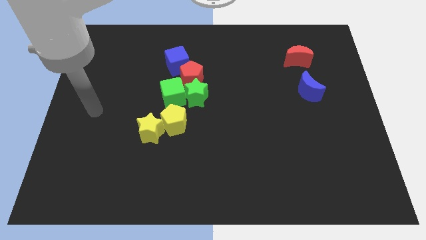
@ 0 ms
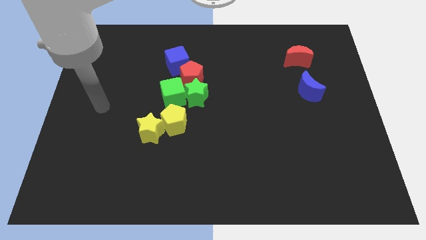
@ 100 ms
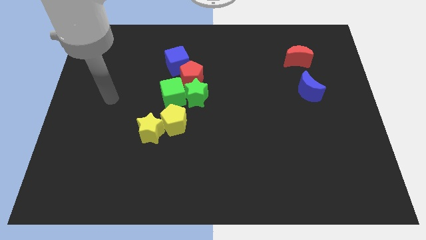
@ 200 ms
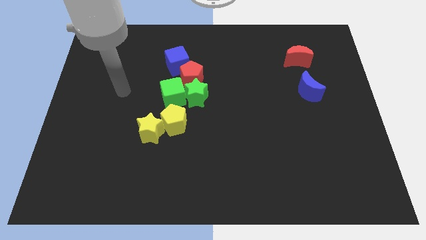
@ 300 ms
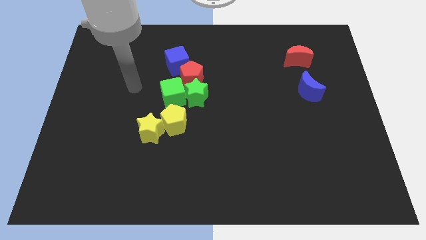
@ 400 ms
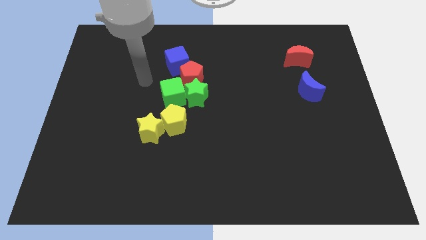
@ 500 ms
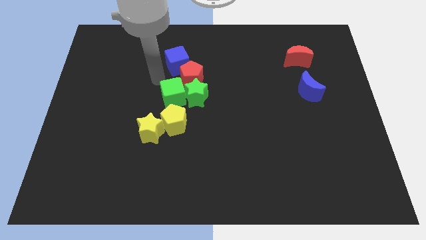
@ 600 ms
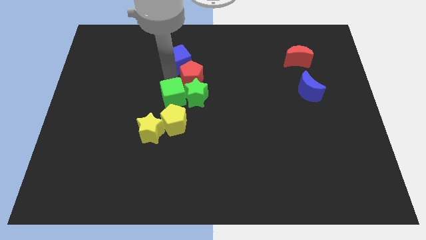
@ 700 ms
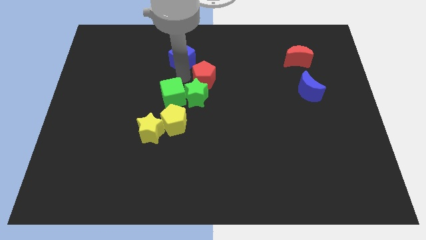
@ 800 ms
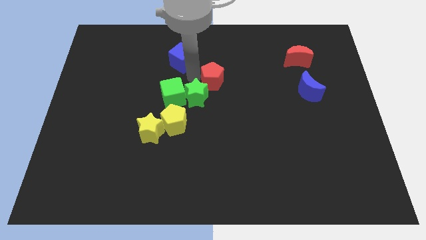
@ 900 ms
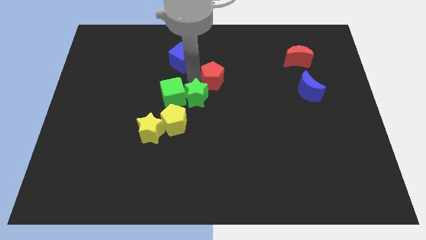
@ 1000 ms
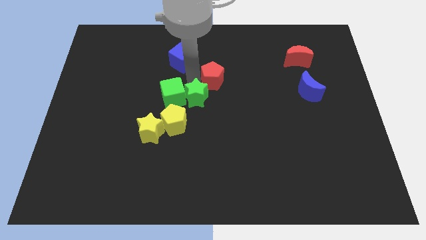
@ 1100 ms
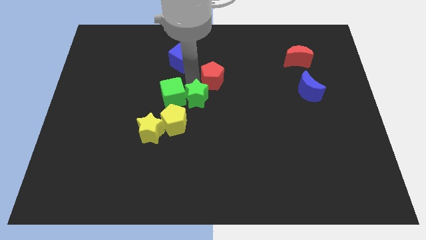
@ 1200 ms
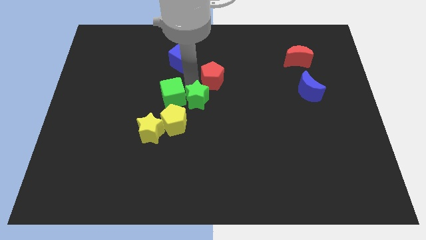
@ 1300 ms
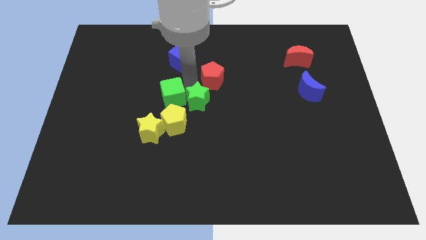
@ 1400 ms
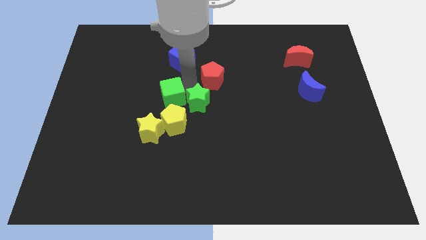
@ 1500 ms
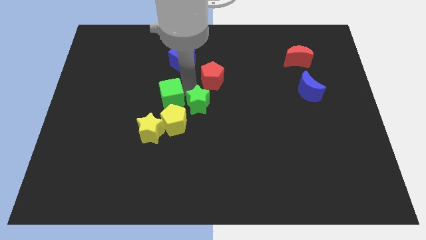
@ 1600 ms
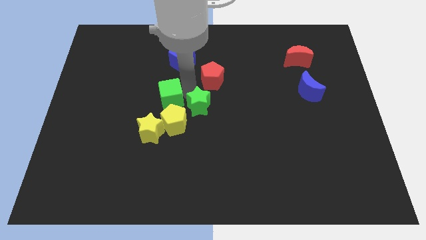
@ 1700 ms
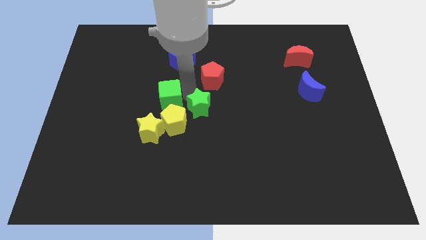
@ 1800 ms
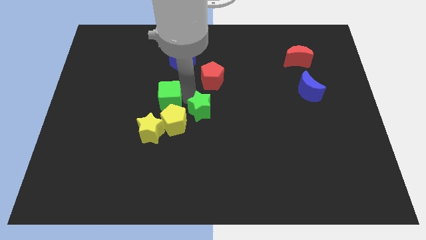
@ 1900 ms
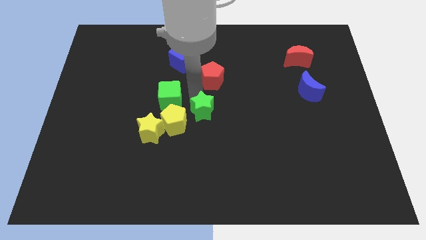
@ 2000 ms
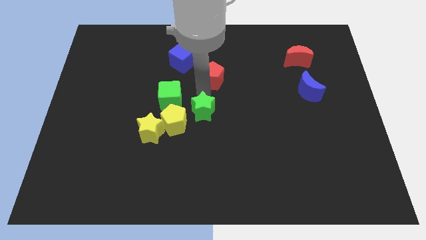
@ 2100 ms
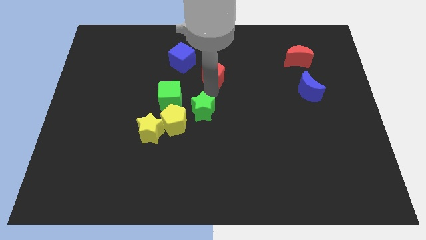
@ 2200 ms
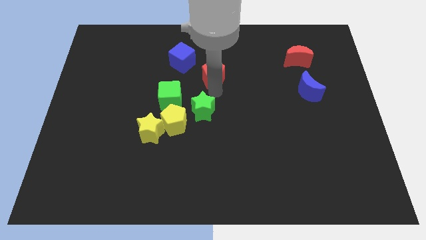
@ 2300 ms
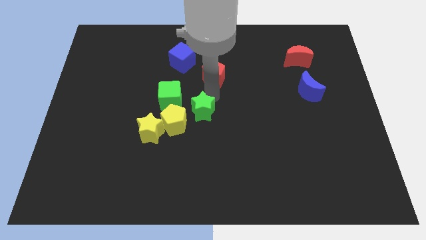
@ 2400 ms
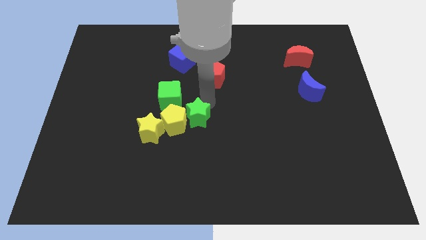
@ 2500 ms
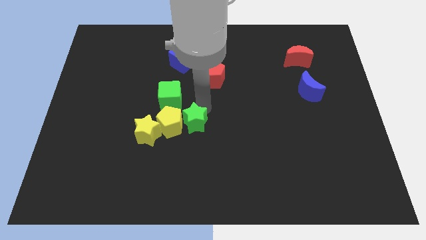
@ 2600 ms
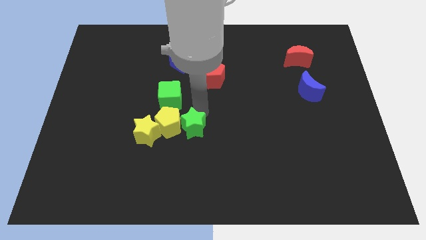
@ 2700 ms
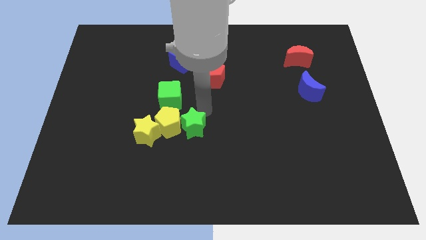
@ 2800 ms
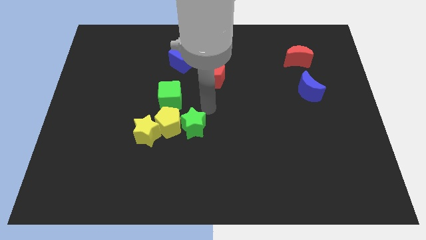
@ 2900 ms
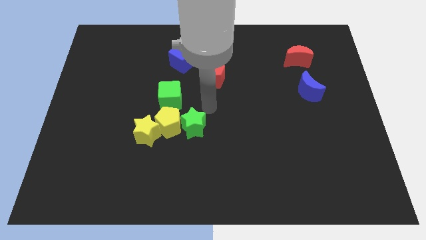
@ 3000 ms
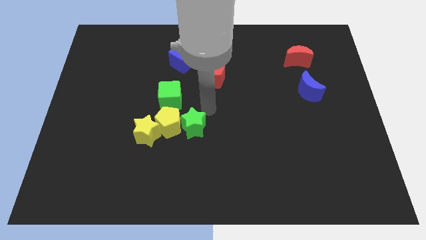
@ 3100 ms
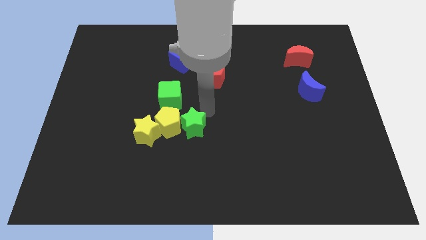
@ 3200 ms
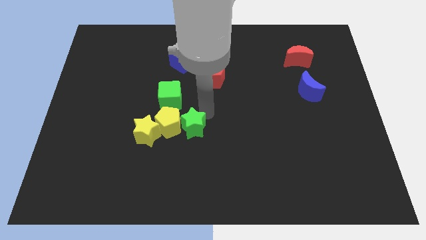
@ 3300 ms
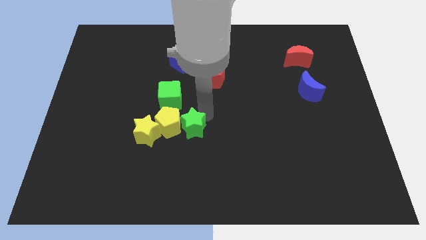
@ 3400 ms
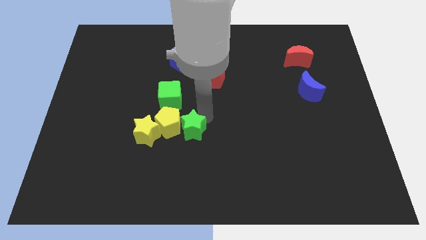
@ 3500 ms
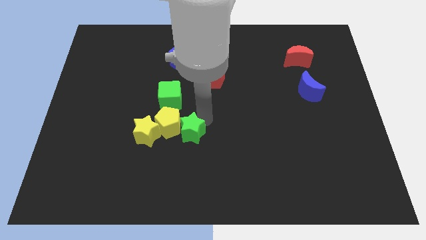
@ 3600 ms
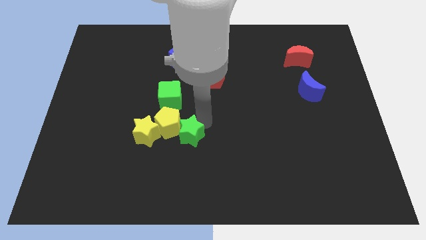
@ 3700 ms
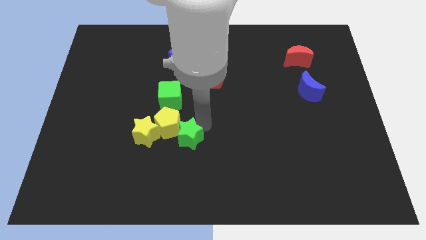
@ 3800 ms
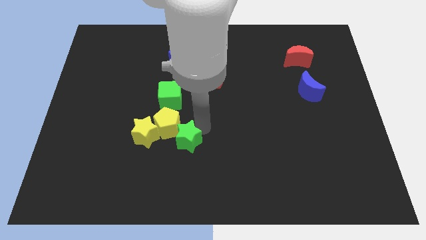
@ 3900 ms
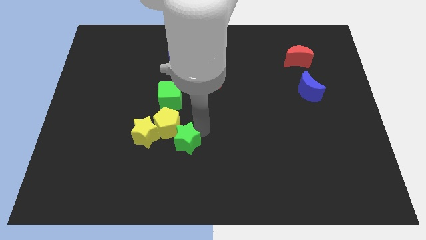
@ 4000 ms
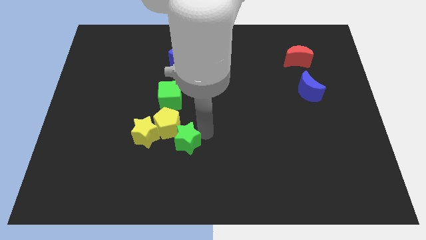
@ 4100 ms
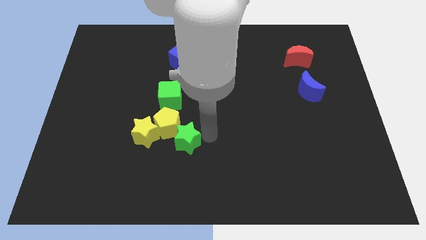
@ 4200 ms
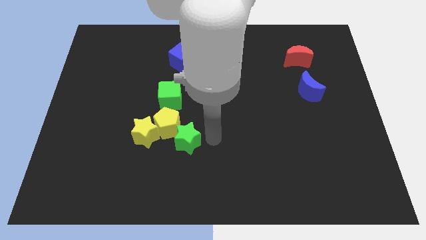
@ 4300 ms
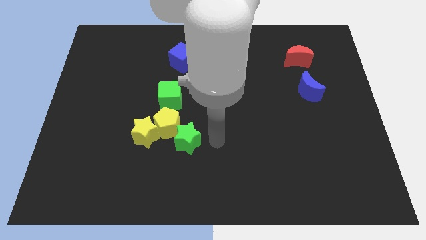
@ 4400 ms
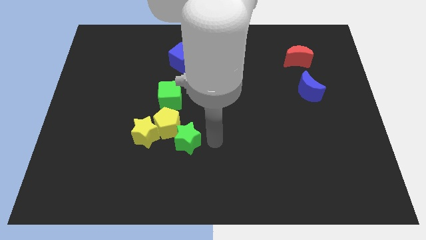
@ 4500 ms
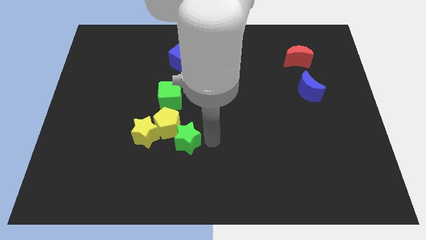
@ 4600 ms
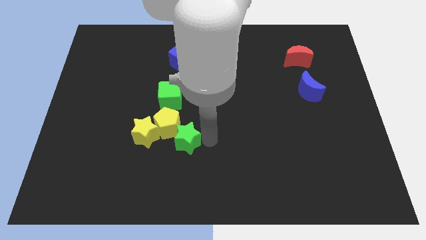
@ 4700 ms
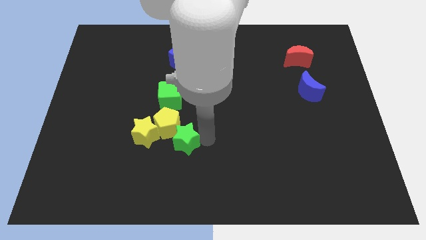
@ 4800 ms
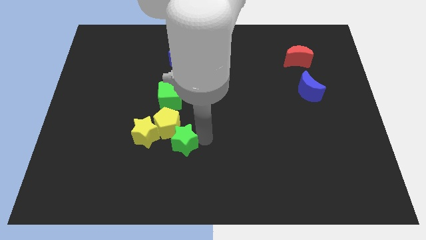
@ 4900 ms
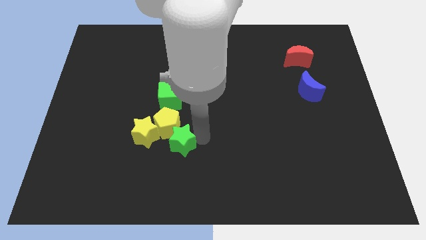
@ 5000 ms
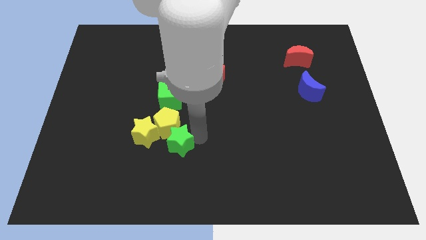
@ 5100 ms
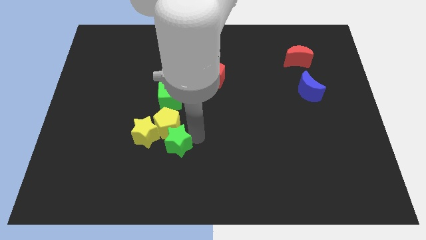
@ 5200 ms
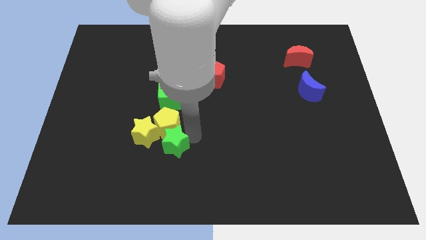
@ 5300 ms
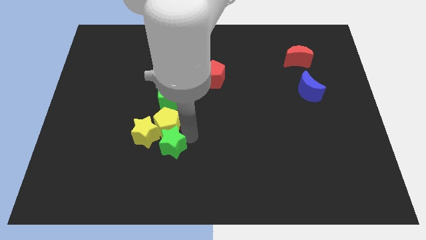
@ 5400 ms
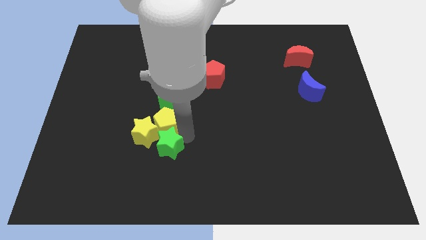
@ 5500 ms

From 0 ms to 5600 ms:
slide the green star close to the yellow star

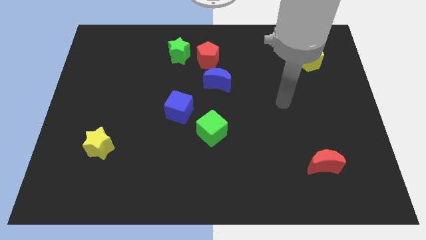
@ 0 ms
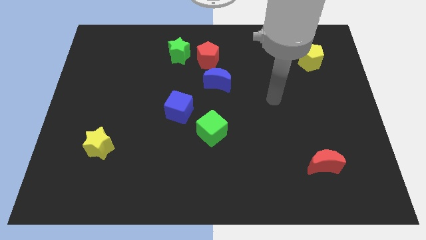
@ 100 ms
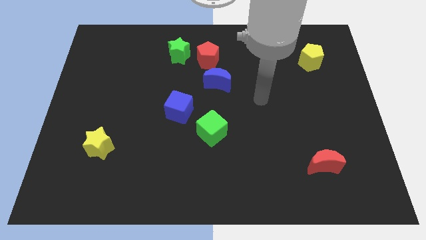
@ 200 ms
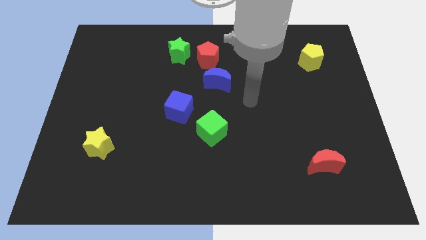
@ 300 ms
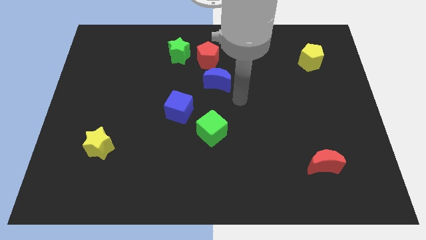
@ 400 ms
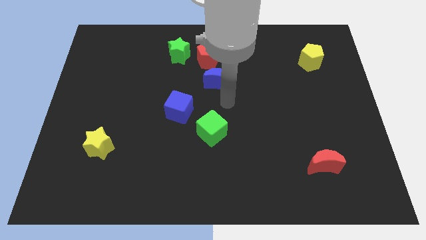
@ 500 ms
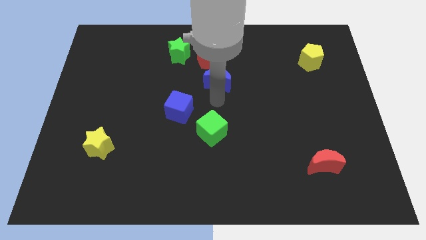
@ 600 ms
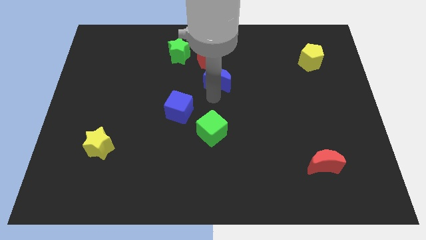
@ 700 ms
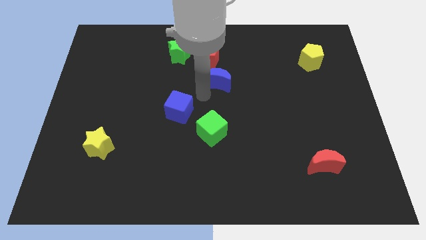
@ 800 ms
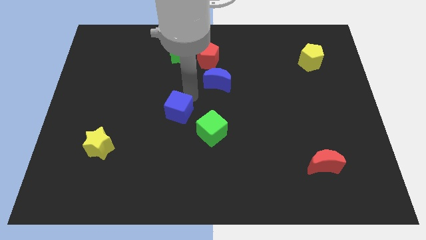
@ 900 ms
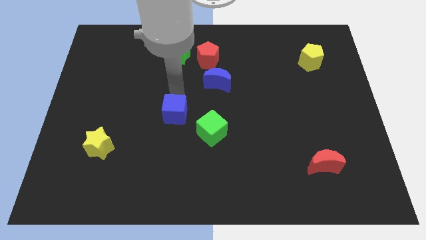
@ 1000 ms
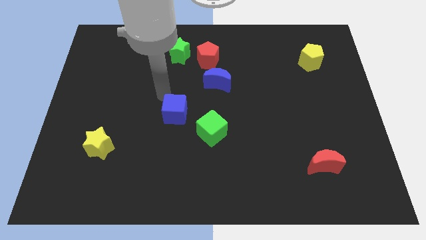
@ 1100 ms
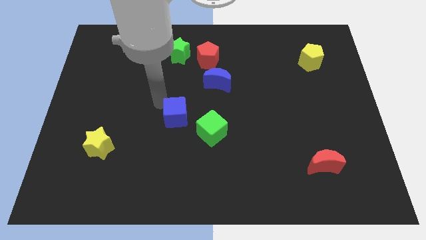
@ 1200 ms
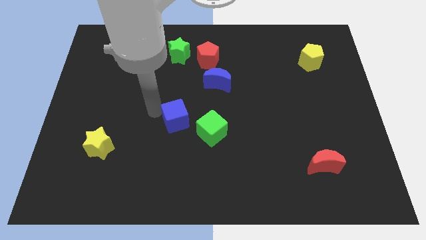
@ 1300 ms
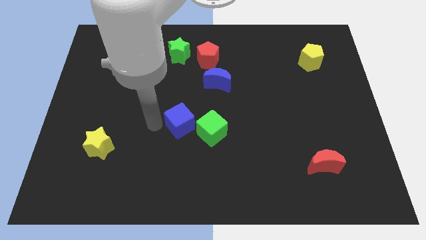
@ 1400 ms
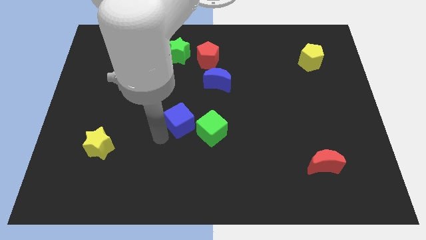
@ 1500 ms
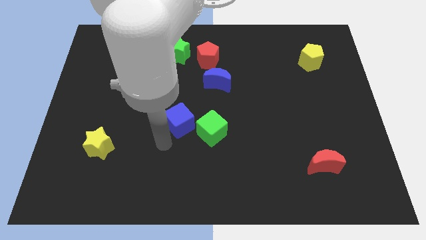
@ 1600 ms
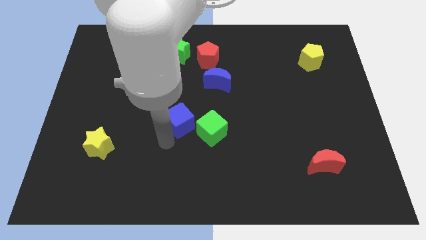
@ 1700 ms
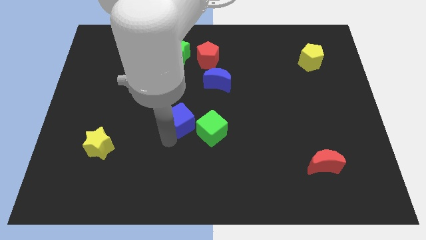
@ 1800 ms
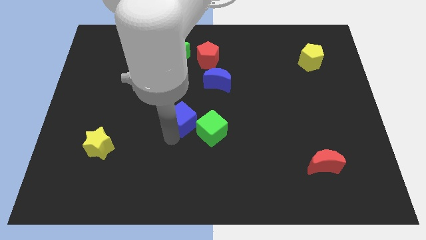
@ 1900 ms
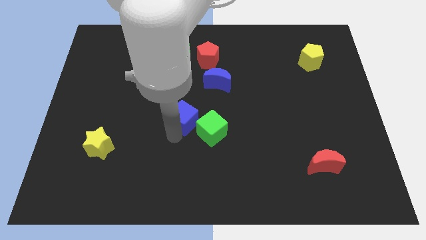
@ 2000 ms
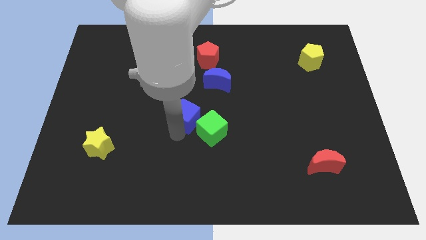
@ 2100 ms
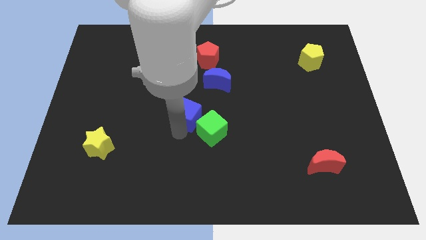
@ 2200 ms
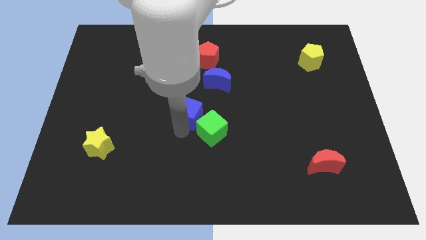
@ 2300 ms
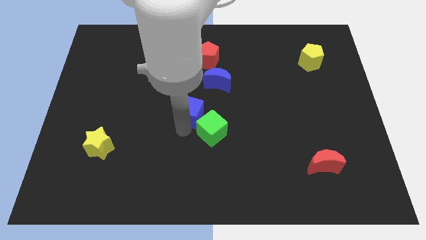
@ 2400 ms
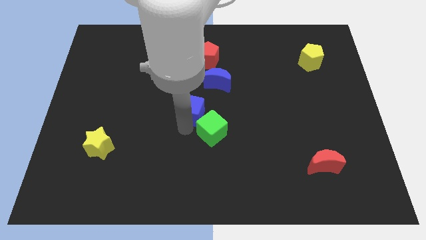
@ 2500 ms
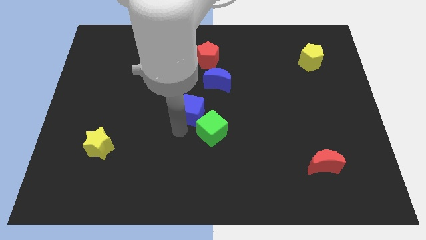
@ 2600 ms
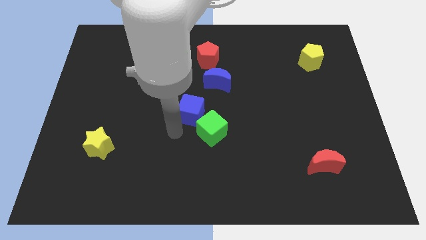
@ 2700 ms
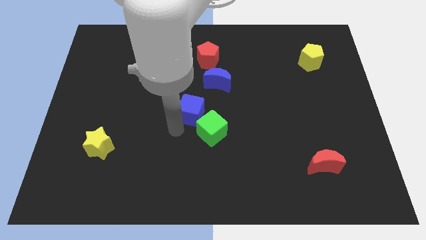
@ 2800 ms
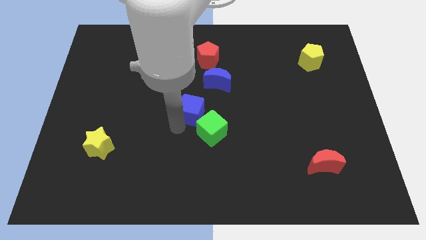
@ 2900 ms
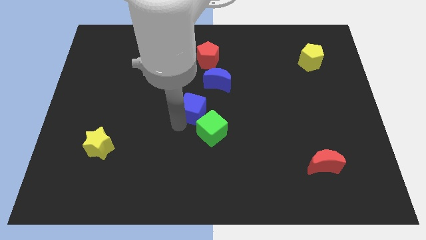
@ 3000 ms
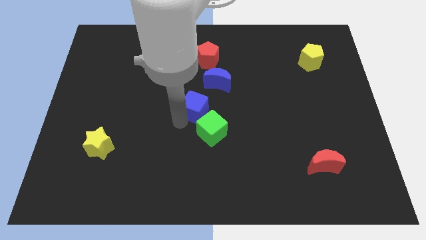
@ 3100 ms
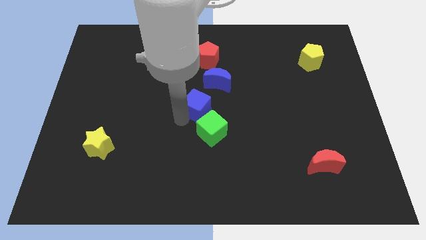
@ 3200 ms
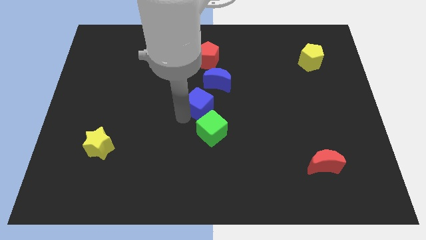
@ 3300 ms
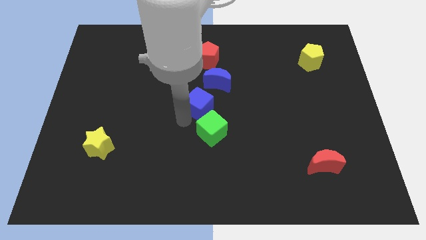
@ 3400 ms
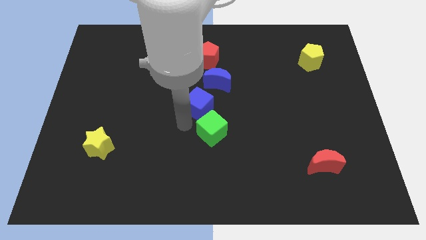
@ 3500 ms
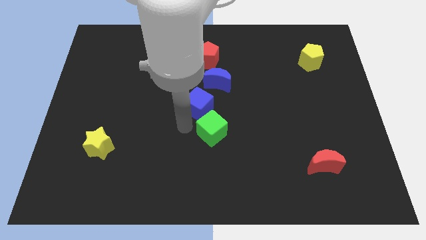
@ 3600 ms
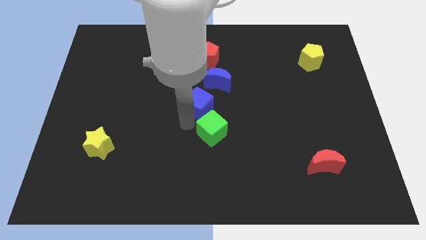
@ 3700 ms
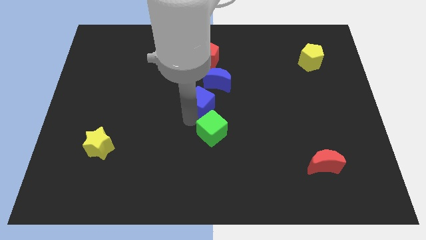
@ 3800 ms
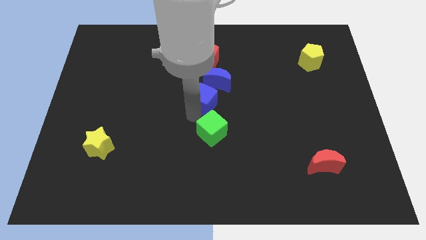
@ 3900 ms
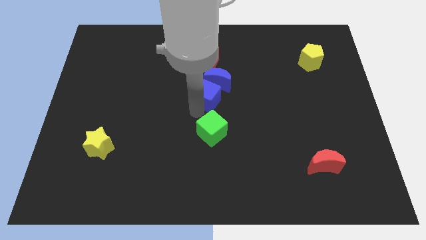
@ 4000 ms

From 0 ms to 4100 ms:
slide the blue cube towards the blue moon
